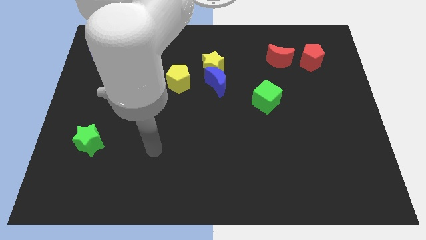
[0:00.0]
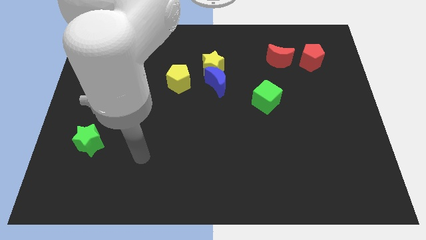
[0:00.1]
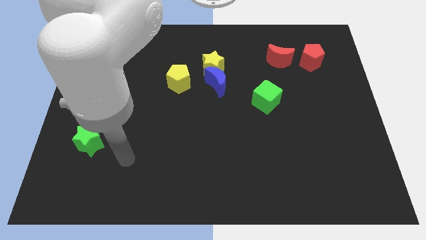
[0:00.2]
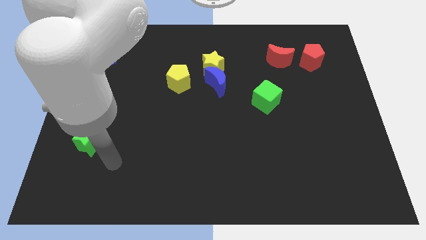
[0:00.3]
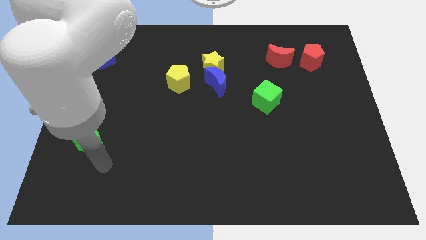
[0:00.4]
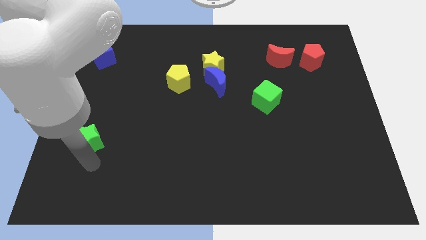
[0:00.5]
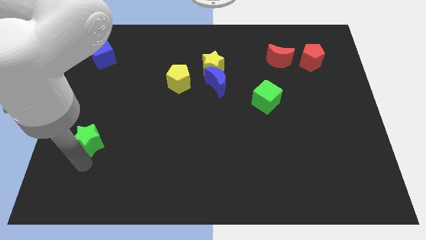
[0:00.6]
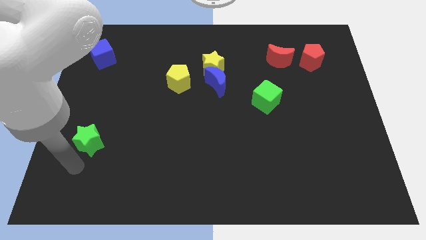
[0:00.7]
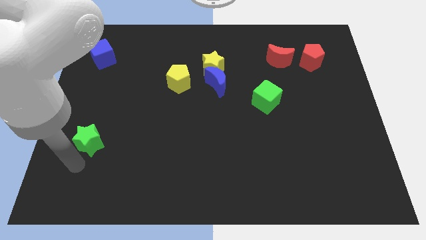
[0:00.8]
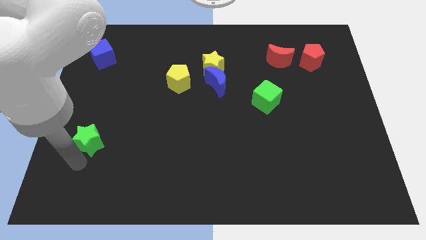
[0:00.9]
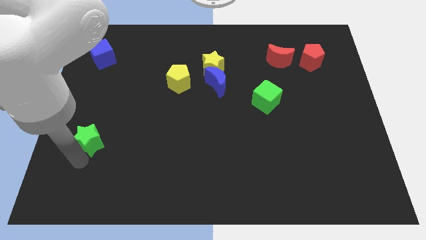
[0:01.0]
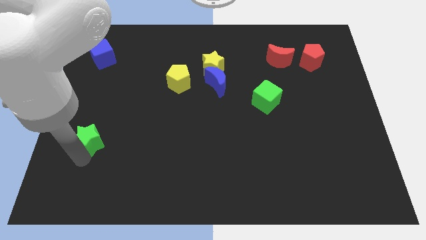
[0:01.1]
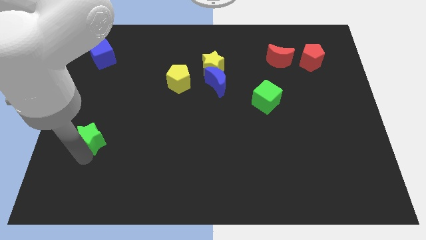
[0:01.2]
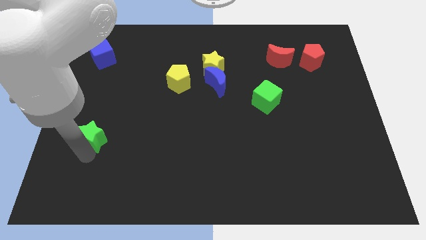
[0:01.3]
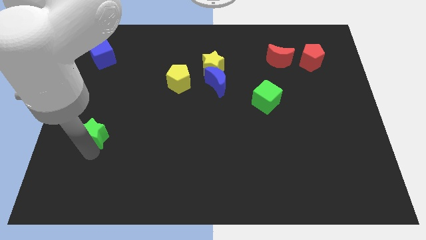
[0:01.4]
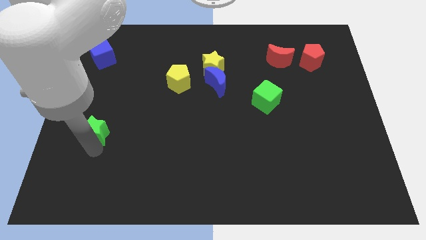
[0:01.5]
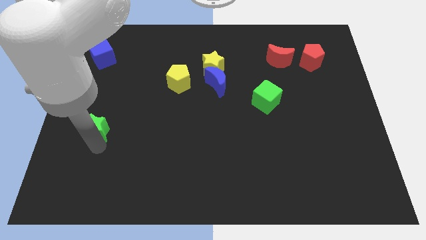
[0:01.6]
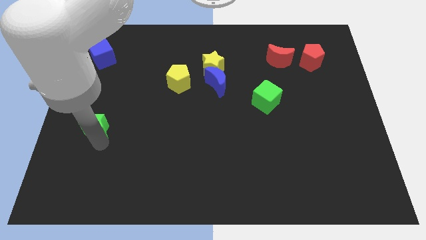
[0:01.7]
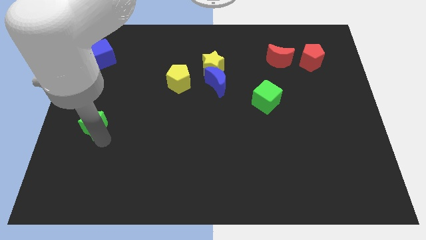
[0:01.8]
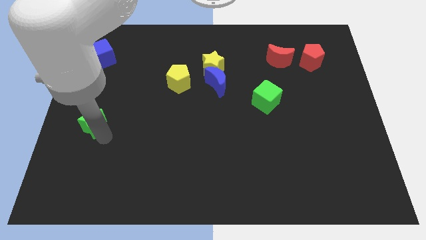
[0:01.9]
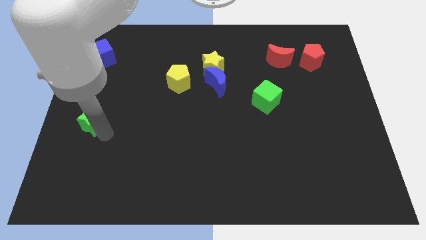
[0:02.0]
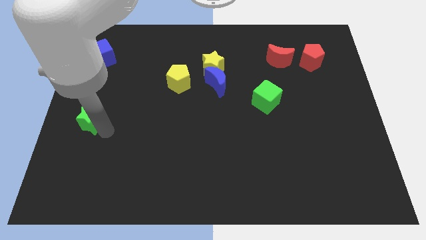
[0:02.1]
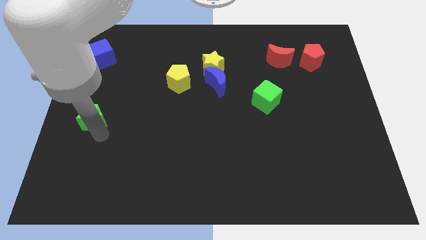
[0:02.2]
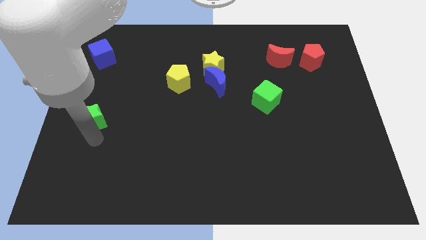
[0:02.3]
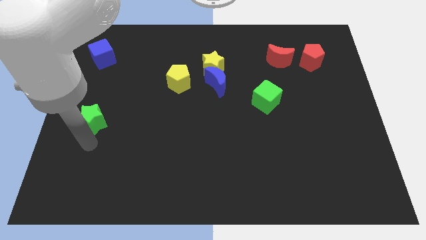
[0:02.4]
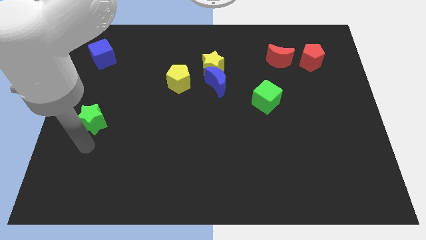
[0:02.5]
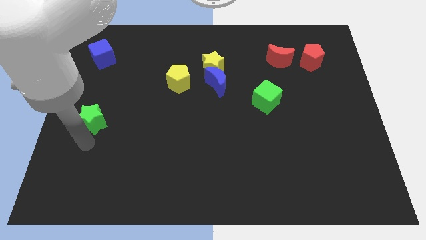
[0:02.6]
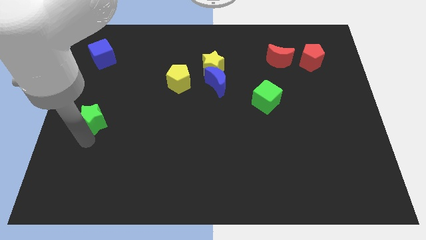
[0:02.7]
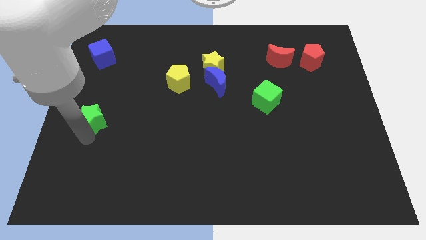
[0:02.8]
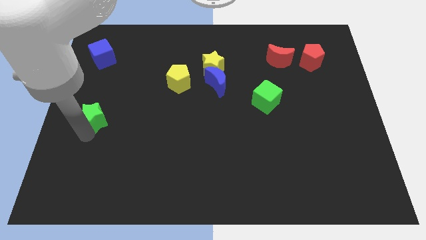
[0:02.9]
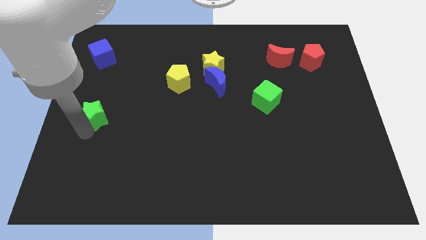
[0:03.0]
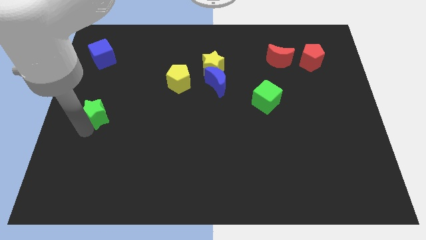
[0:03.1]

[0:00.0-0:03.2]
slightly push the green star up

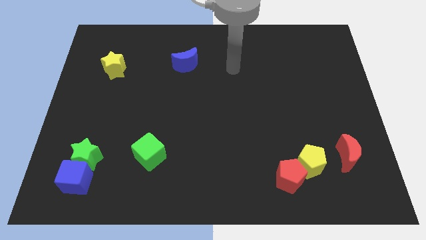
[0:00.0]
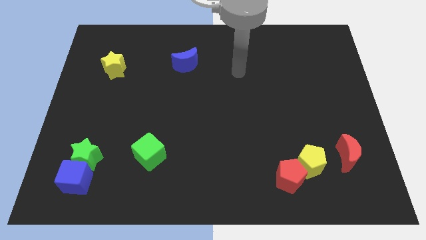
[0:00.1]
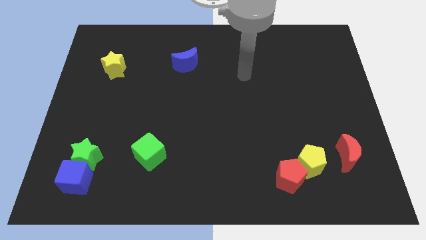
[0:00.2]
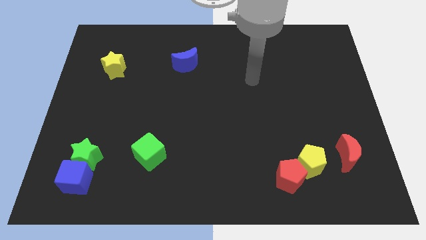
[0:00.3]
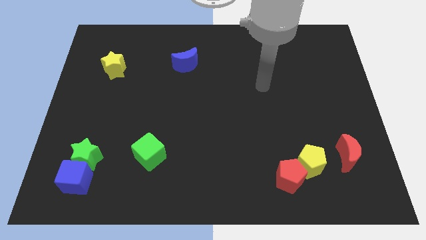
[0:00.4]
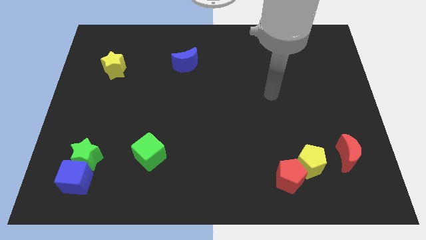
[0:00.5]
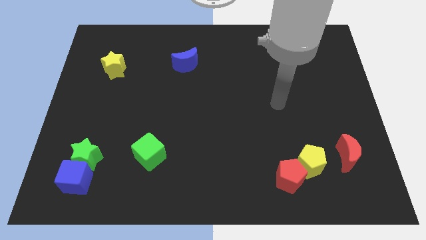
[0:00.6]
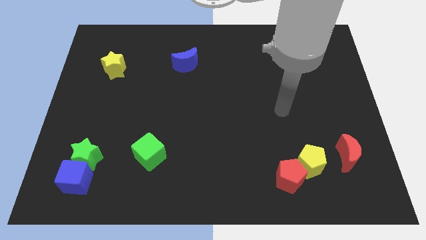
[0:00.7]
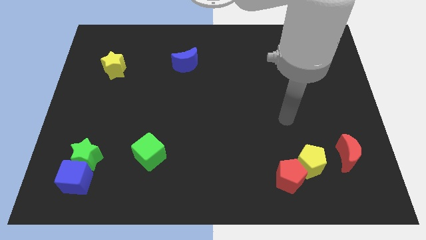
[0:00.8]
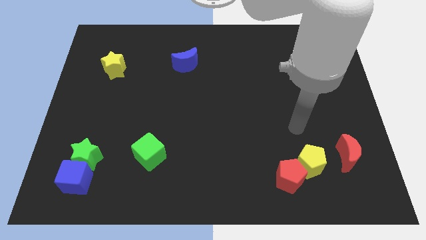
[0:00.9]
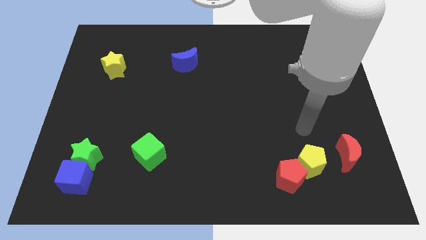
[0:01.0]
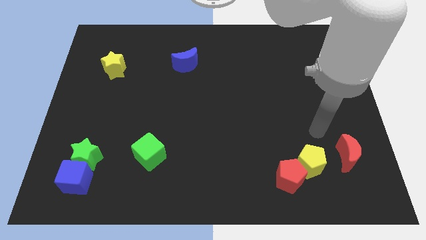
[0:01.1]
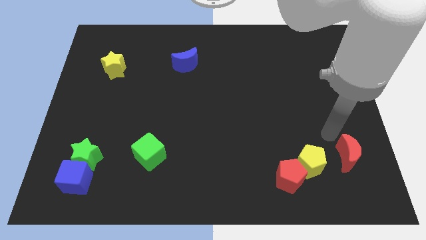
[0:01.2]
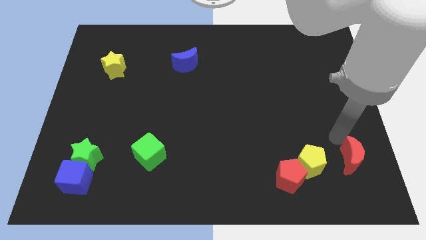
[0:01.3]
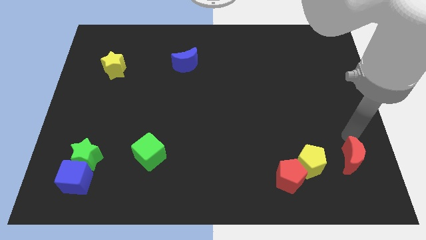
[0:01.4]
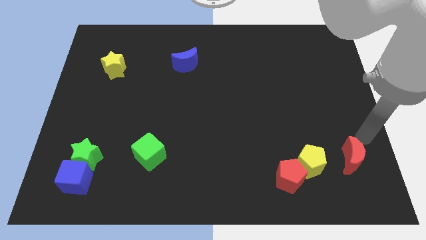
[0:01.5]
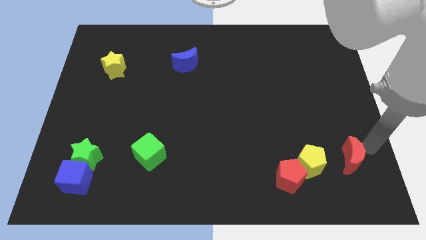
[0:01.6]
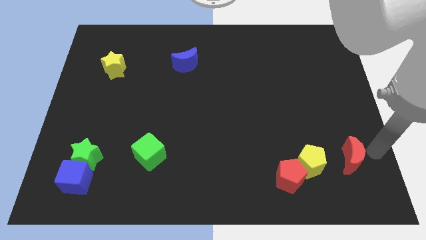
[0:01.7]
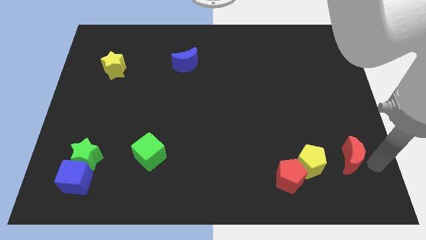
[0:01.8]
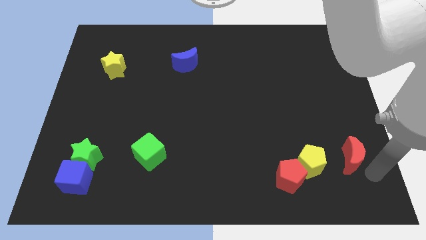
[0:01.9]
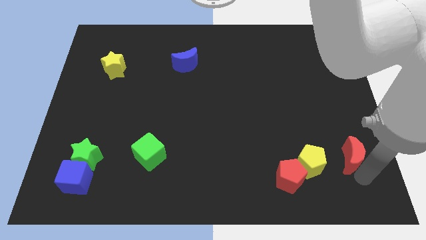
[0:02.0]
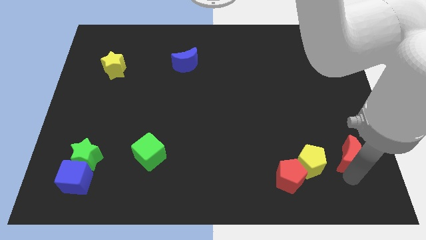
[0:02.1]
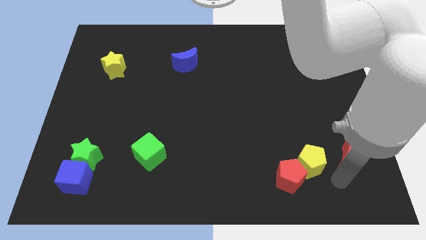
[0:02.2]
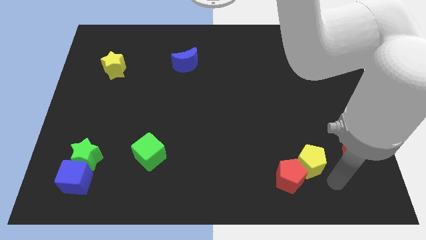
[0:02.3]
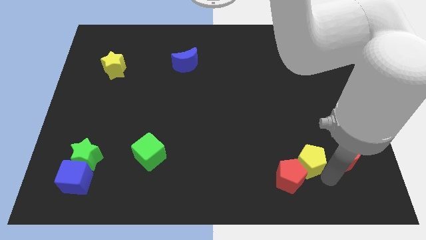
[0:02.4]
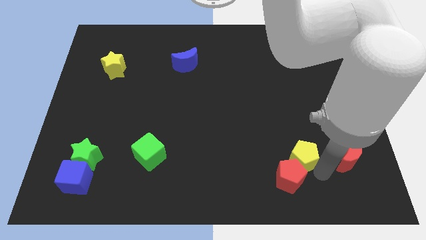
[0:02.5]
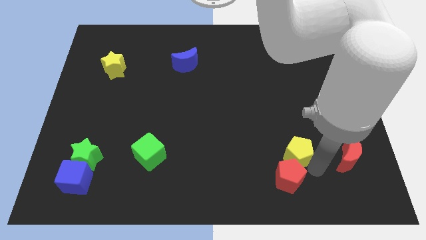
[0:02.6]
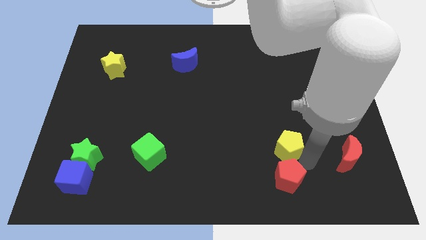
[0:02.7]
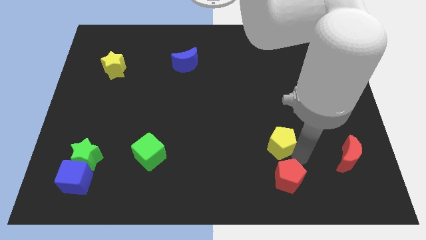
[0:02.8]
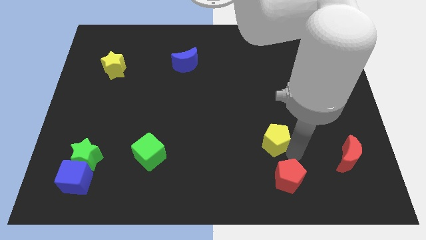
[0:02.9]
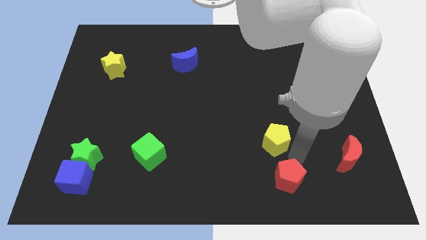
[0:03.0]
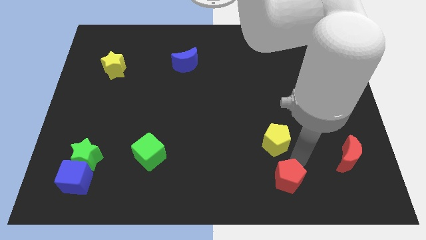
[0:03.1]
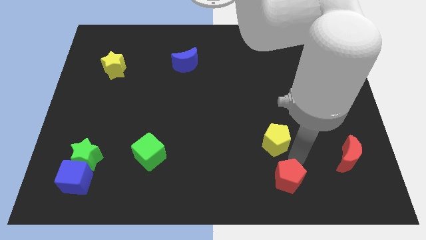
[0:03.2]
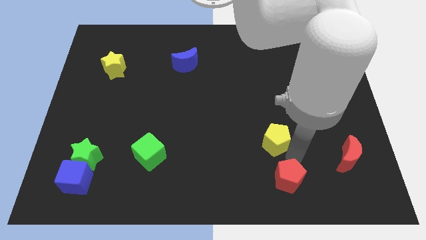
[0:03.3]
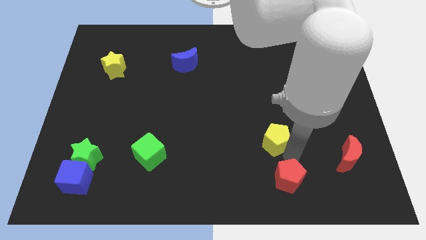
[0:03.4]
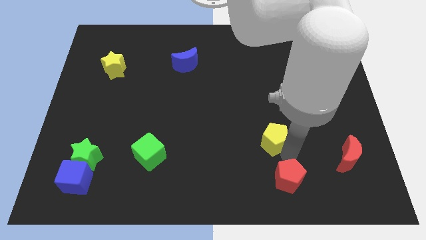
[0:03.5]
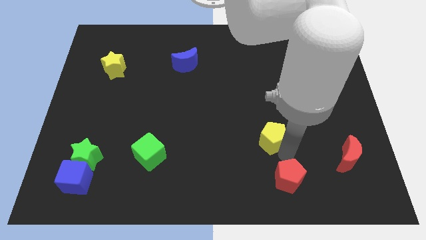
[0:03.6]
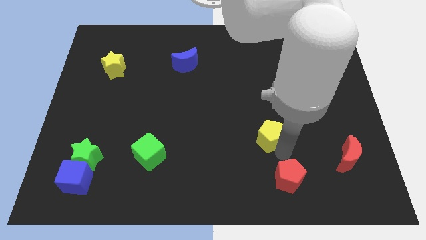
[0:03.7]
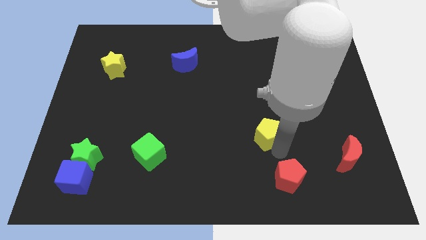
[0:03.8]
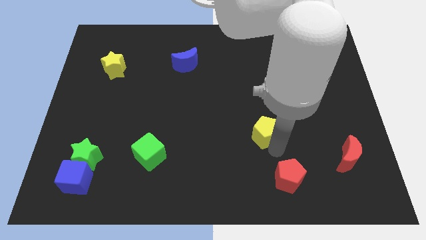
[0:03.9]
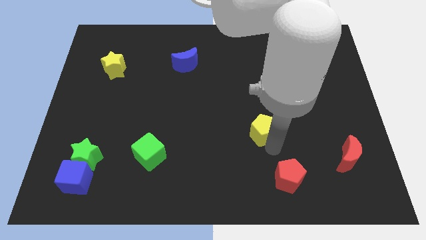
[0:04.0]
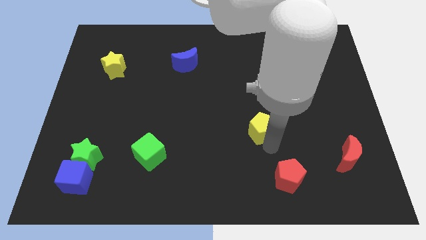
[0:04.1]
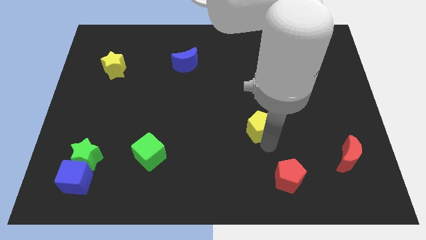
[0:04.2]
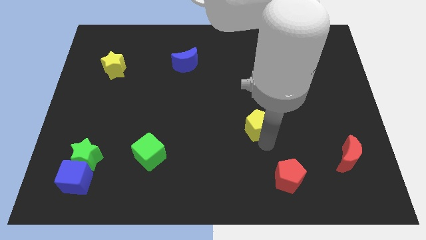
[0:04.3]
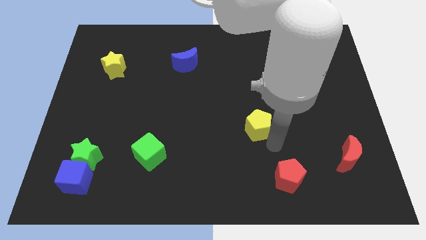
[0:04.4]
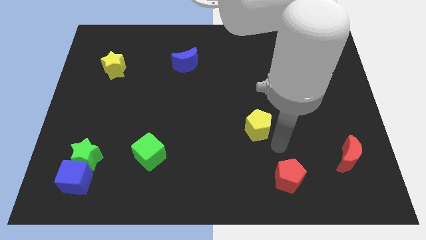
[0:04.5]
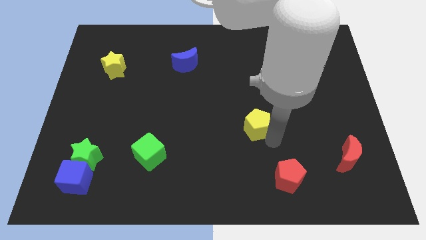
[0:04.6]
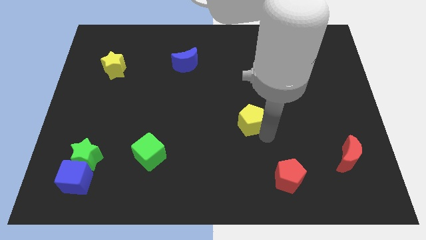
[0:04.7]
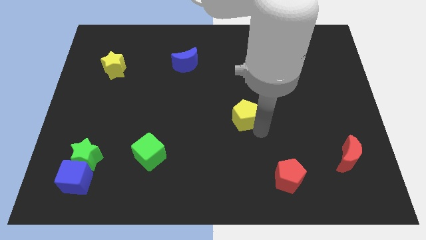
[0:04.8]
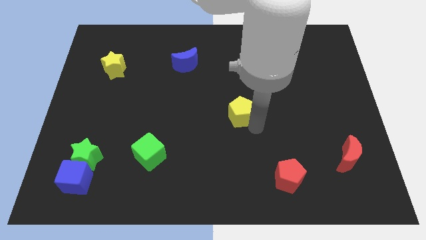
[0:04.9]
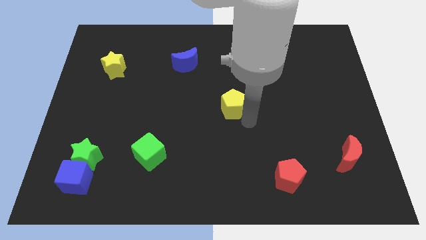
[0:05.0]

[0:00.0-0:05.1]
move the yellow pentagon upwards and left diagonally

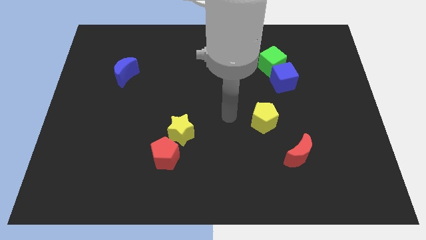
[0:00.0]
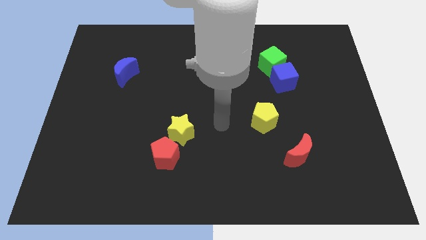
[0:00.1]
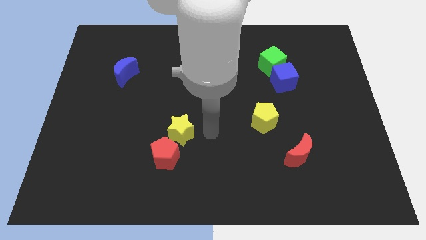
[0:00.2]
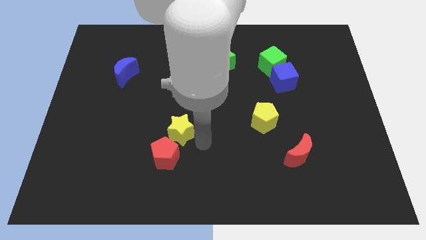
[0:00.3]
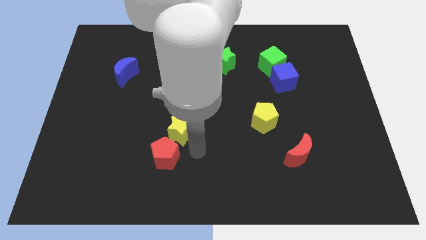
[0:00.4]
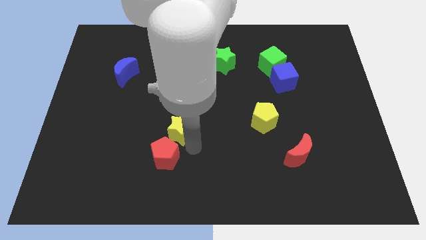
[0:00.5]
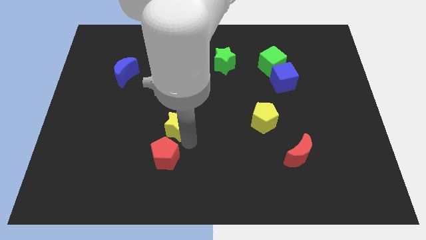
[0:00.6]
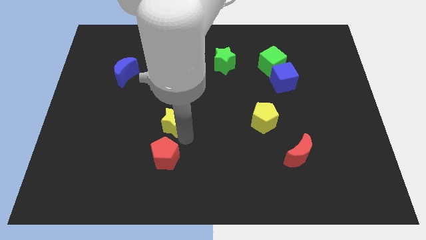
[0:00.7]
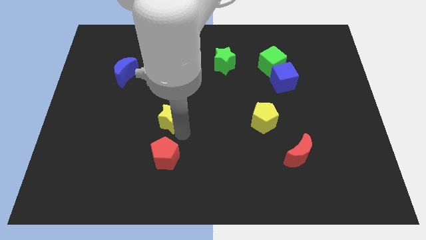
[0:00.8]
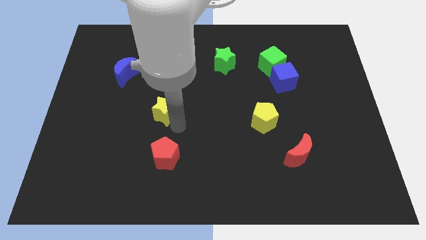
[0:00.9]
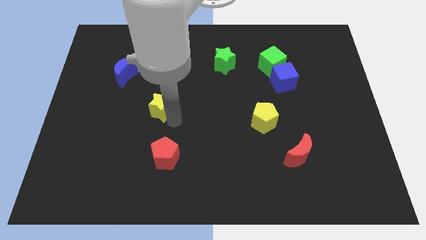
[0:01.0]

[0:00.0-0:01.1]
slightly push the yellow star diagonally up and to the left
